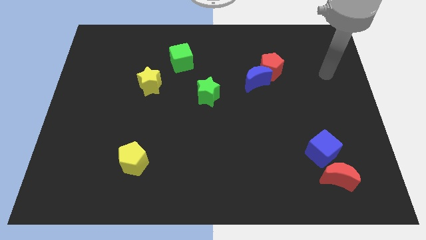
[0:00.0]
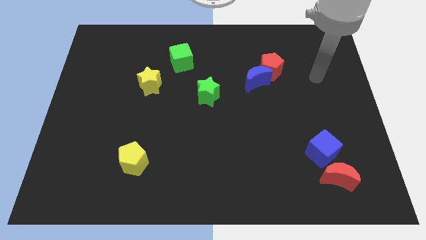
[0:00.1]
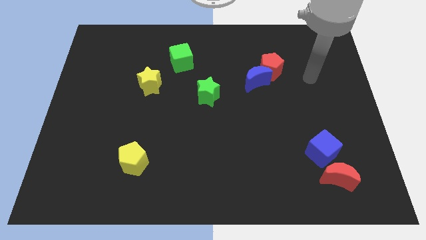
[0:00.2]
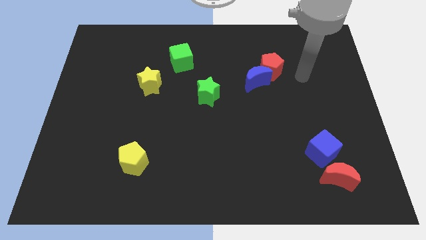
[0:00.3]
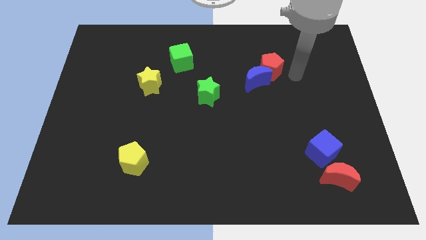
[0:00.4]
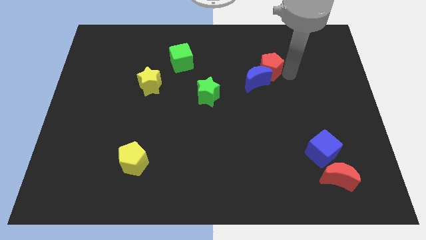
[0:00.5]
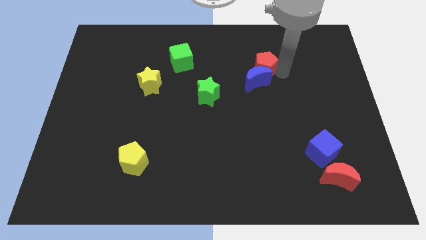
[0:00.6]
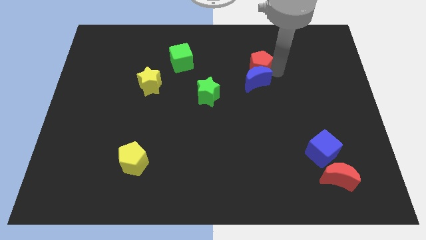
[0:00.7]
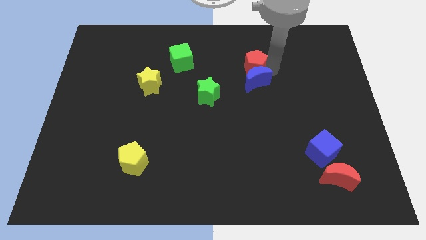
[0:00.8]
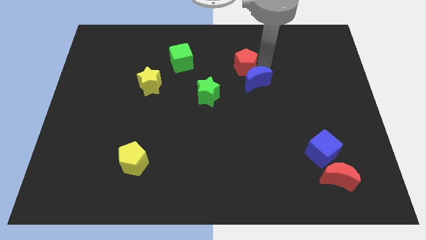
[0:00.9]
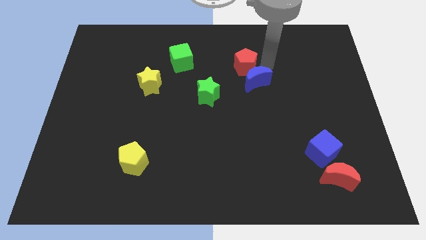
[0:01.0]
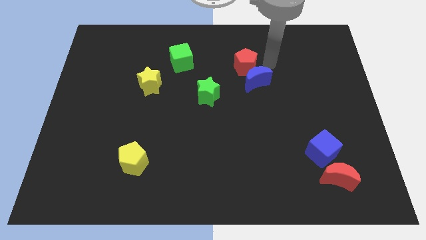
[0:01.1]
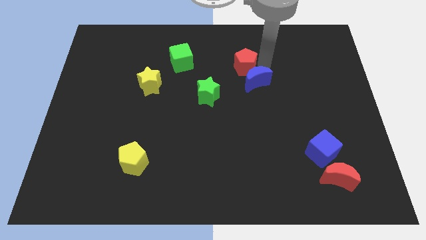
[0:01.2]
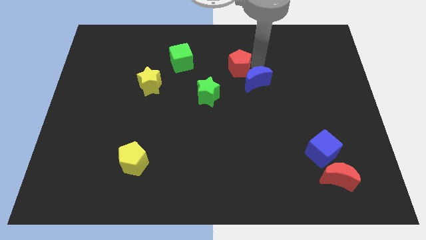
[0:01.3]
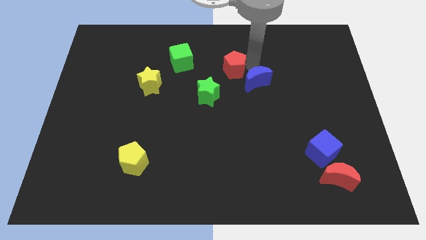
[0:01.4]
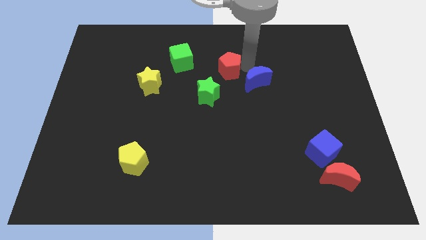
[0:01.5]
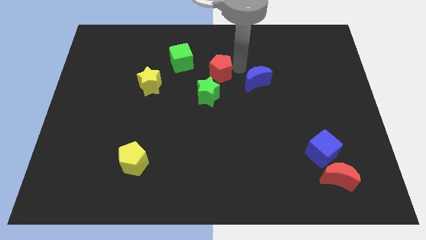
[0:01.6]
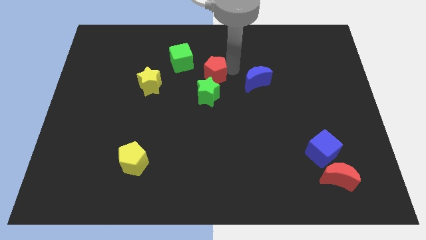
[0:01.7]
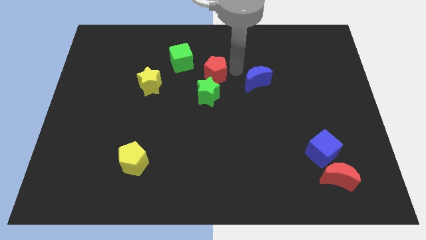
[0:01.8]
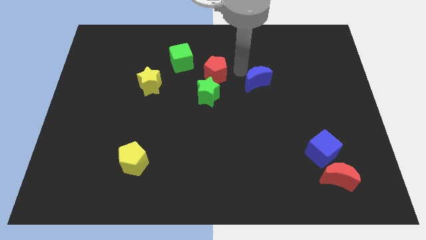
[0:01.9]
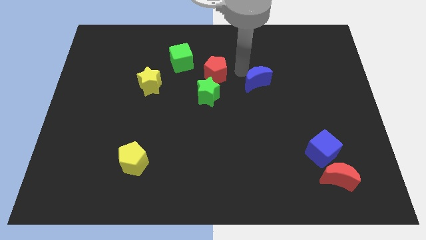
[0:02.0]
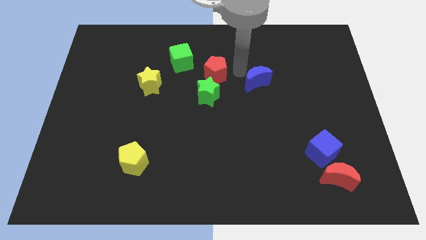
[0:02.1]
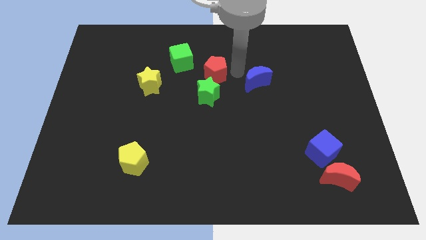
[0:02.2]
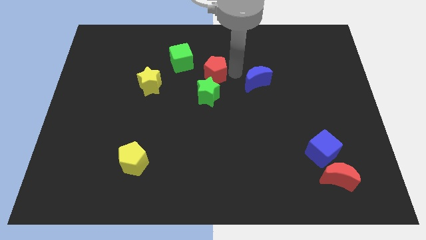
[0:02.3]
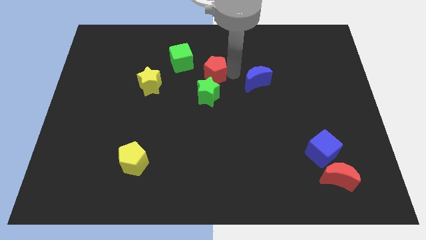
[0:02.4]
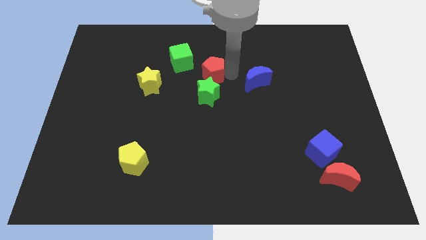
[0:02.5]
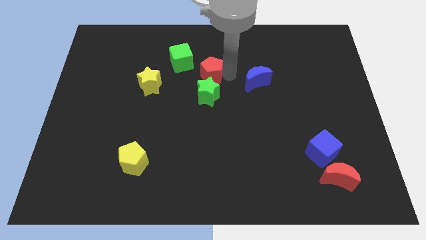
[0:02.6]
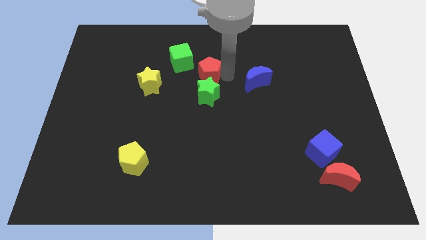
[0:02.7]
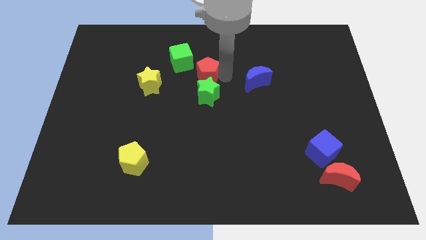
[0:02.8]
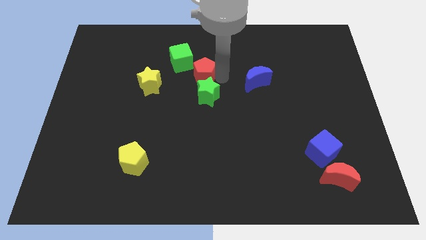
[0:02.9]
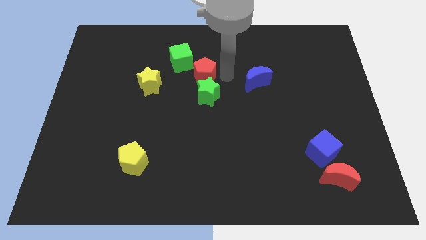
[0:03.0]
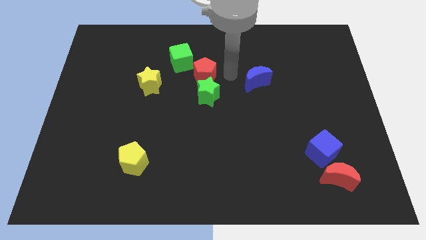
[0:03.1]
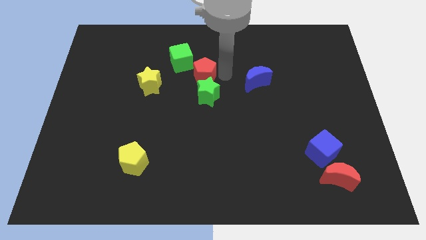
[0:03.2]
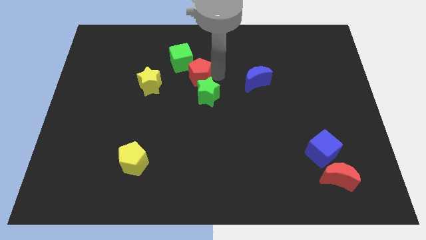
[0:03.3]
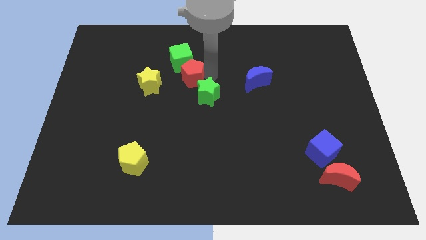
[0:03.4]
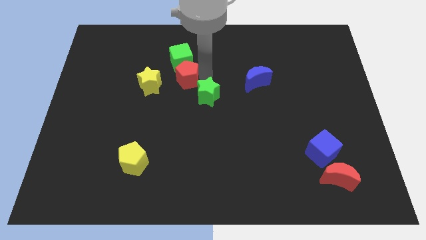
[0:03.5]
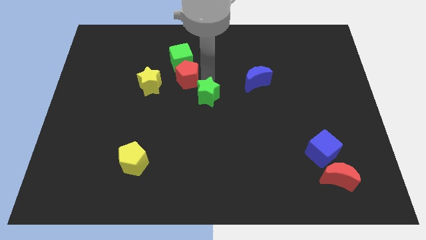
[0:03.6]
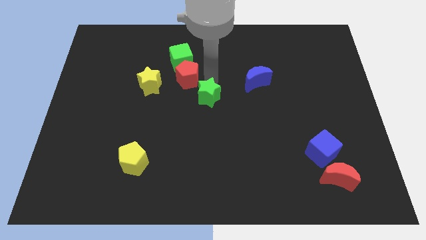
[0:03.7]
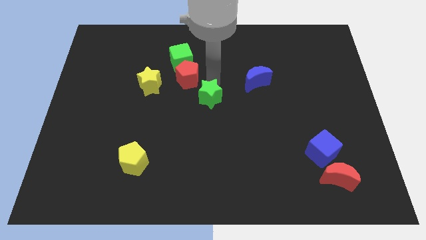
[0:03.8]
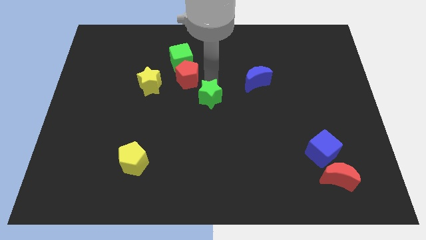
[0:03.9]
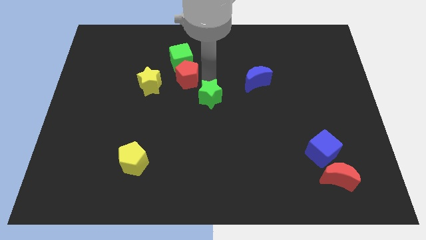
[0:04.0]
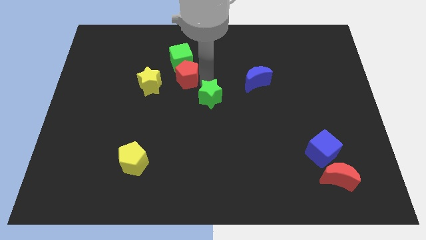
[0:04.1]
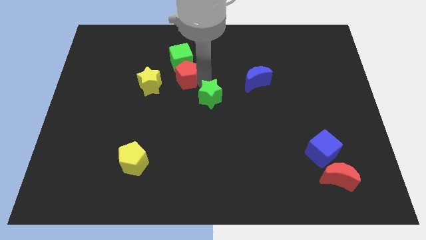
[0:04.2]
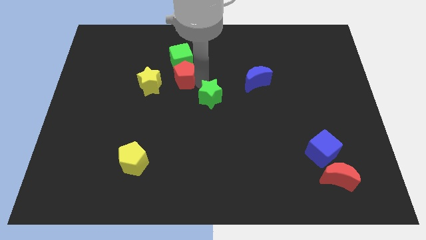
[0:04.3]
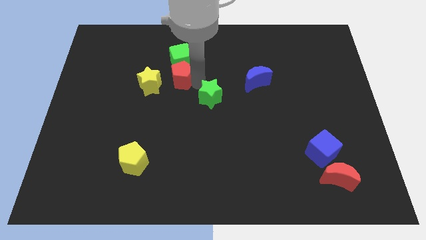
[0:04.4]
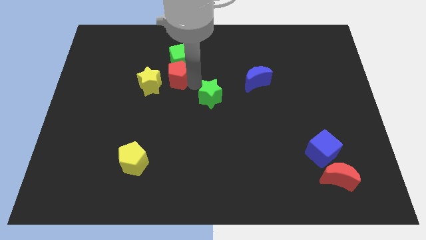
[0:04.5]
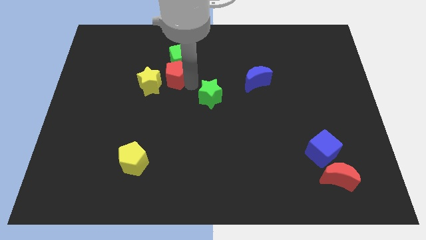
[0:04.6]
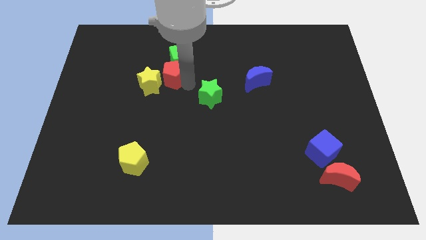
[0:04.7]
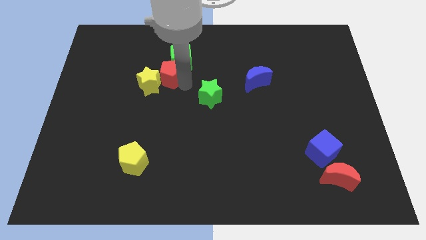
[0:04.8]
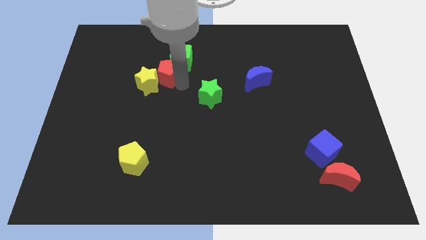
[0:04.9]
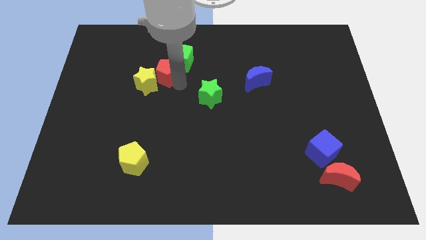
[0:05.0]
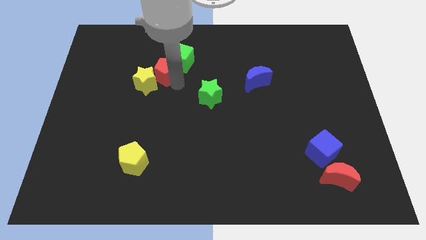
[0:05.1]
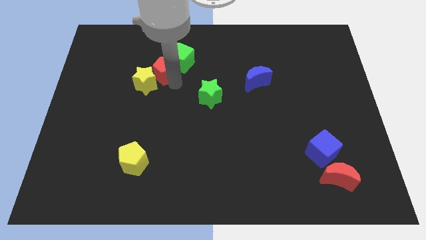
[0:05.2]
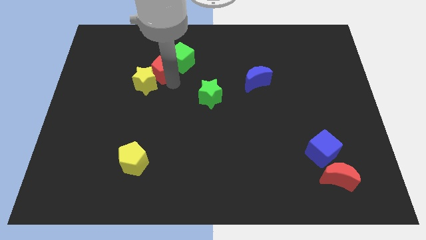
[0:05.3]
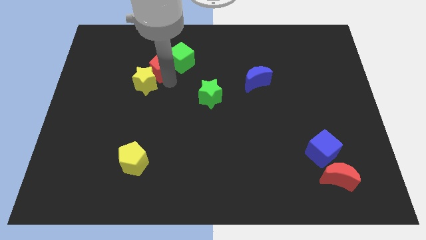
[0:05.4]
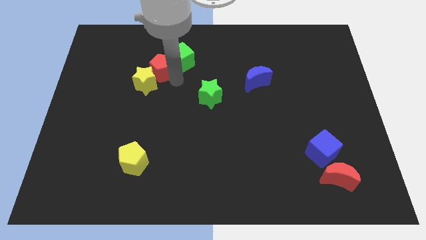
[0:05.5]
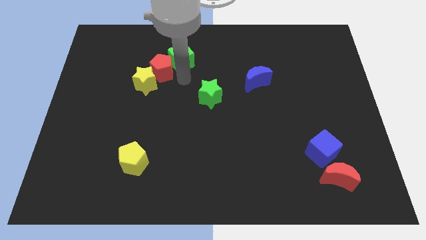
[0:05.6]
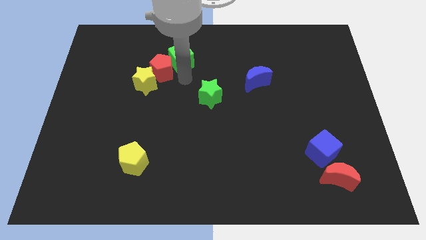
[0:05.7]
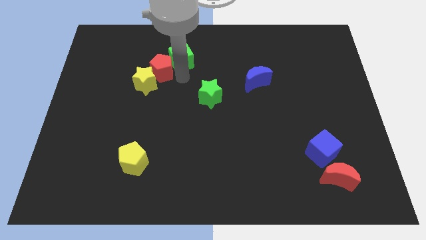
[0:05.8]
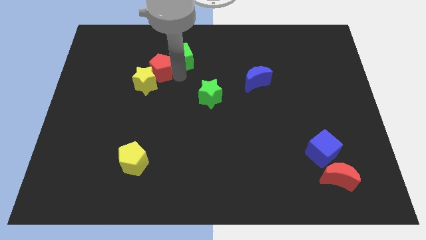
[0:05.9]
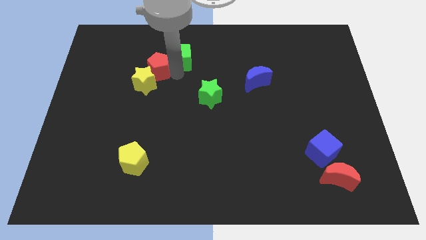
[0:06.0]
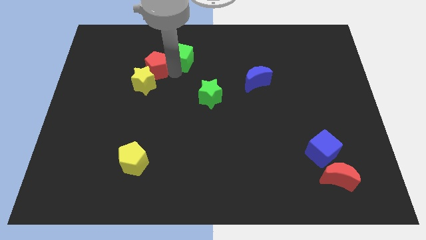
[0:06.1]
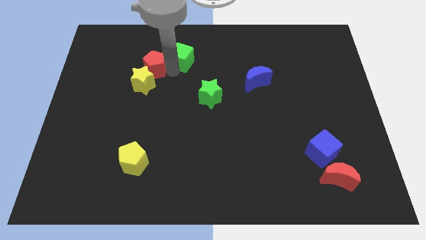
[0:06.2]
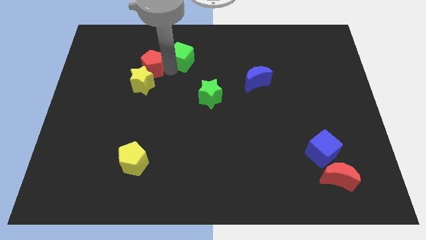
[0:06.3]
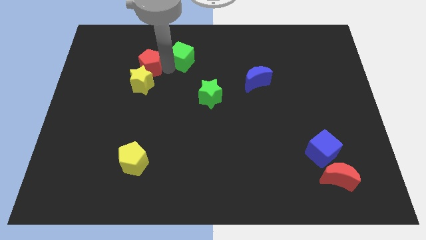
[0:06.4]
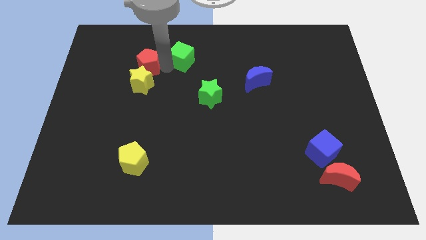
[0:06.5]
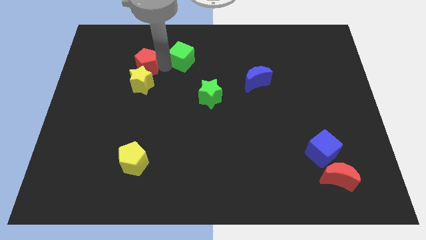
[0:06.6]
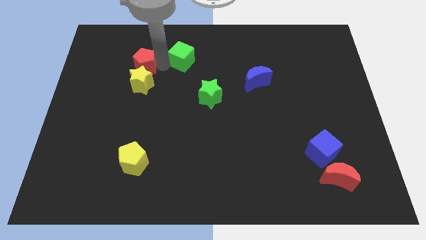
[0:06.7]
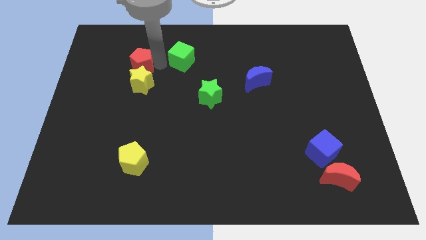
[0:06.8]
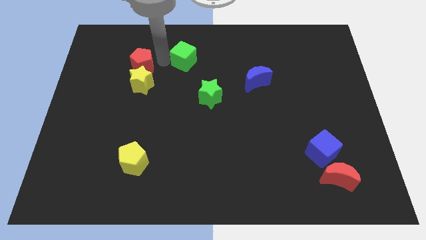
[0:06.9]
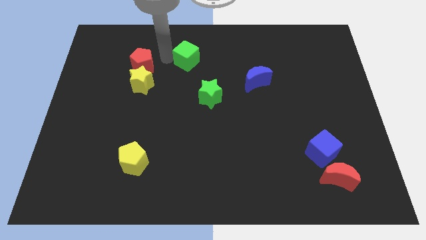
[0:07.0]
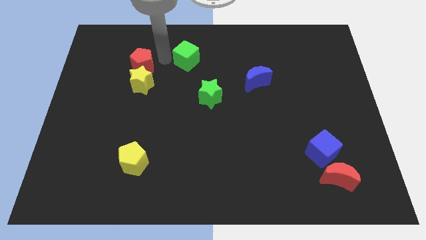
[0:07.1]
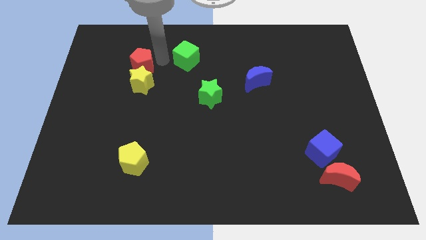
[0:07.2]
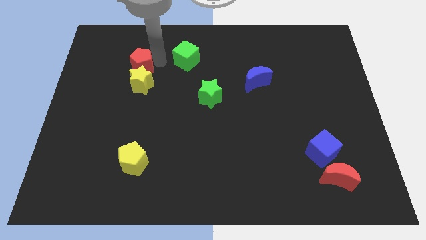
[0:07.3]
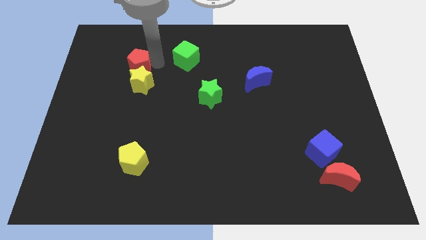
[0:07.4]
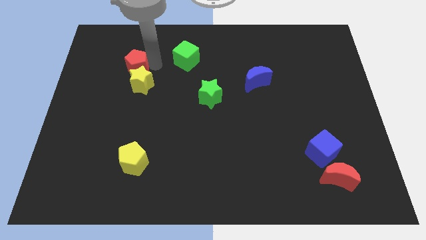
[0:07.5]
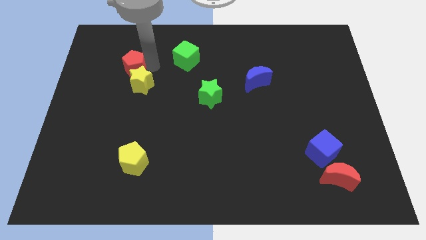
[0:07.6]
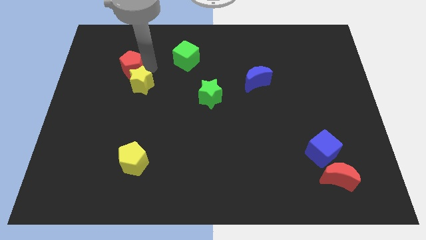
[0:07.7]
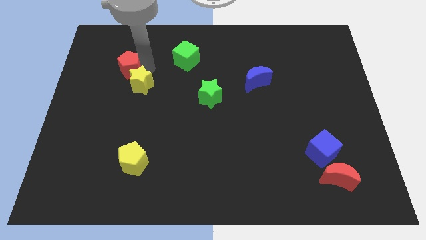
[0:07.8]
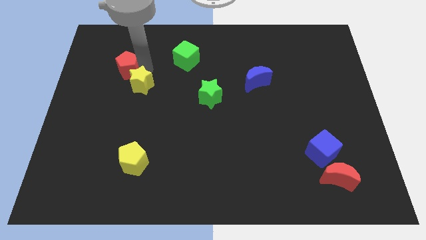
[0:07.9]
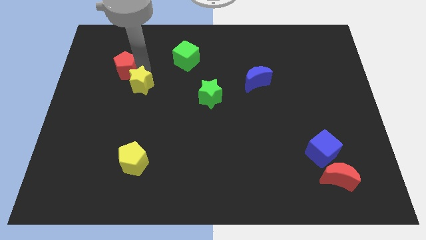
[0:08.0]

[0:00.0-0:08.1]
put the red pentagon to the left side of the yellow star
